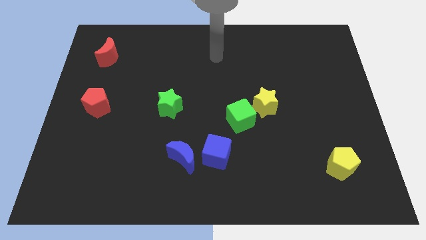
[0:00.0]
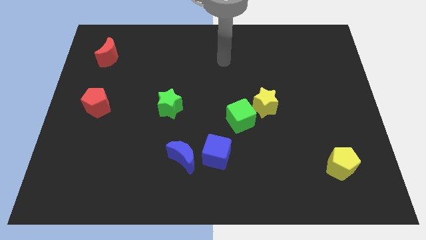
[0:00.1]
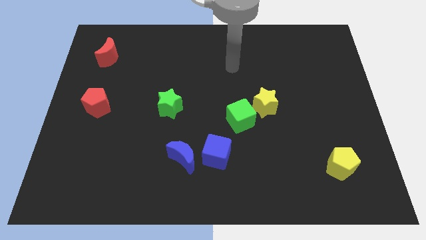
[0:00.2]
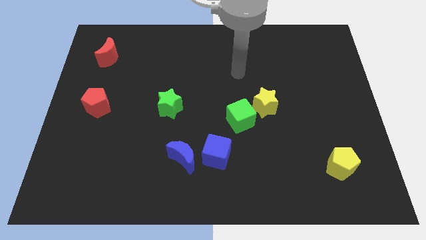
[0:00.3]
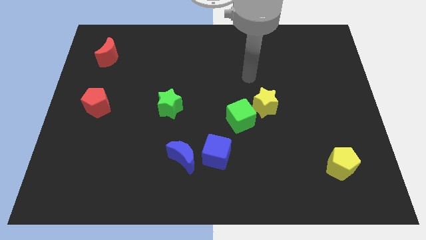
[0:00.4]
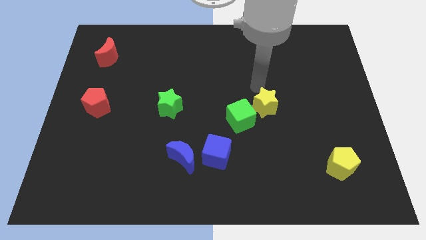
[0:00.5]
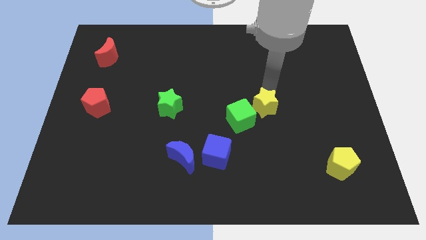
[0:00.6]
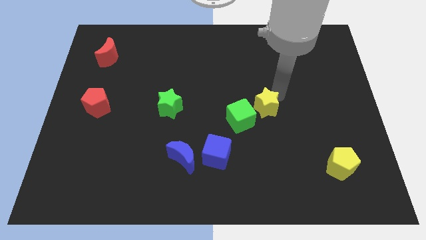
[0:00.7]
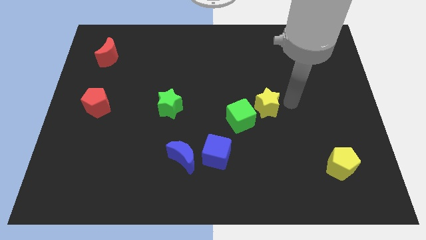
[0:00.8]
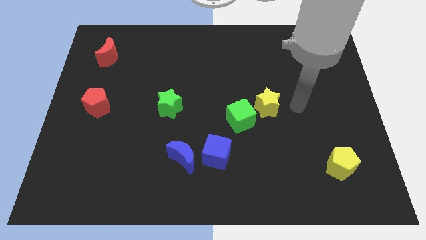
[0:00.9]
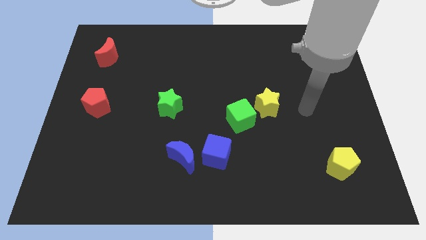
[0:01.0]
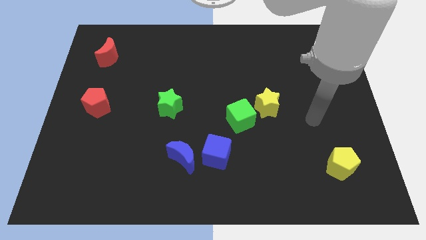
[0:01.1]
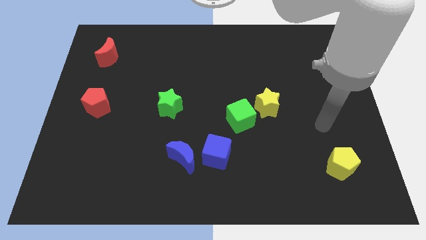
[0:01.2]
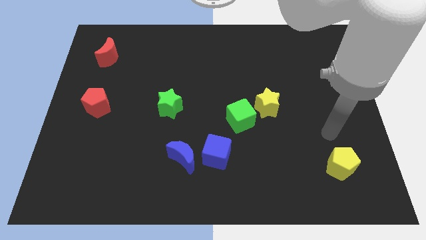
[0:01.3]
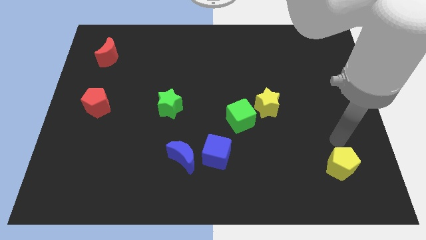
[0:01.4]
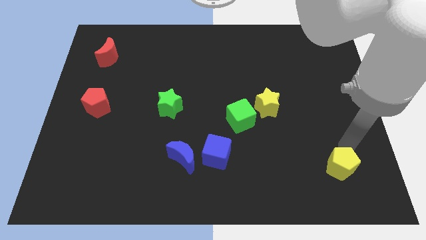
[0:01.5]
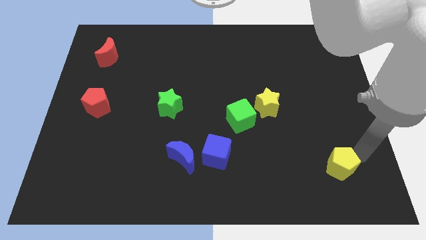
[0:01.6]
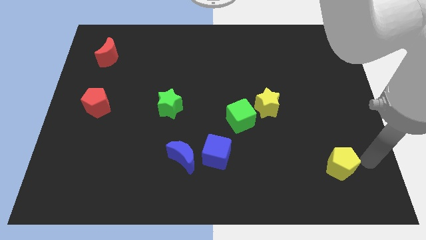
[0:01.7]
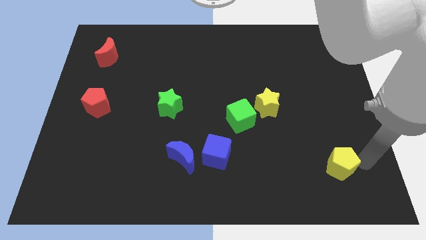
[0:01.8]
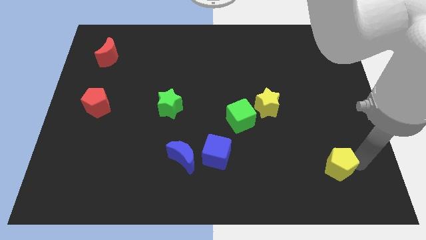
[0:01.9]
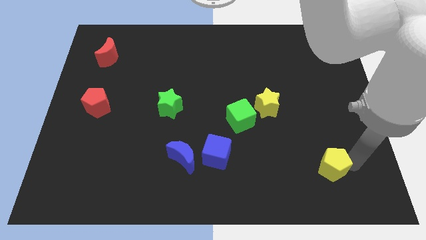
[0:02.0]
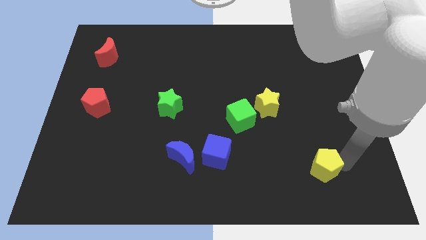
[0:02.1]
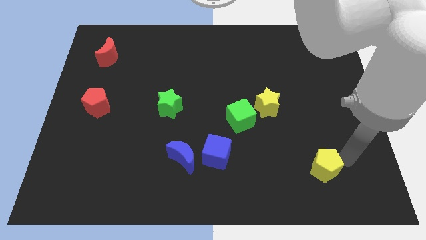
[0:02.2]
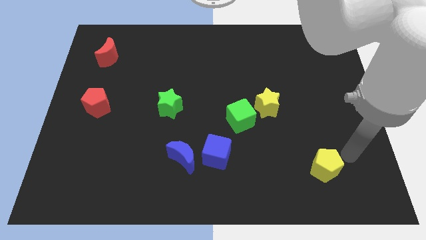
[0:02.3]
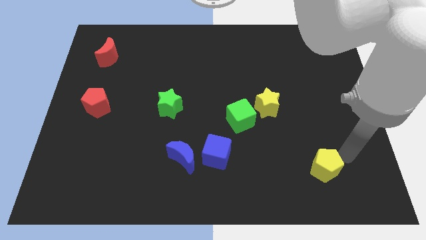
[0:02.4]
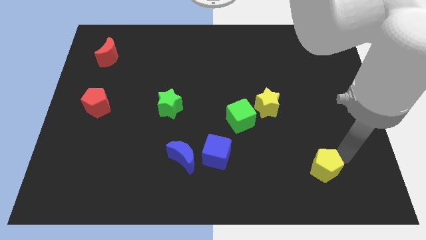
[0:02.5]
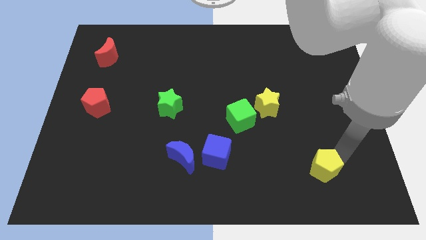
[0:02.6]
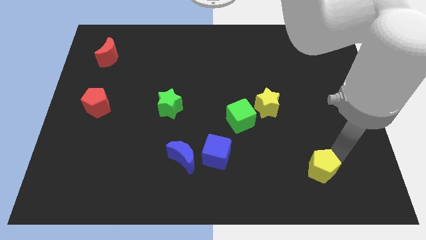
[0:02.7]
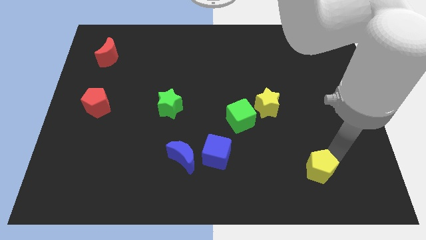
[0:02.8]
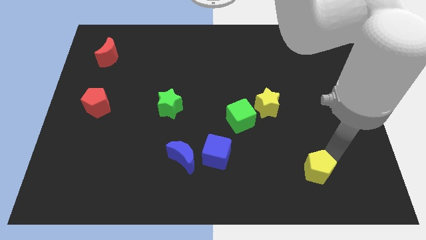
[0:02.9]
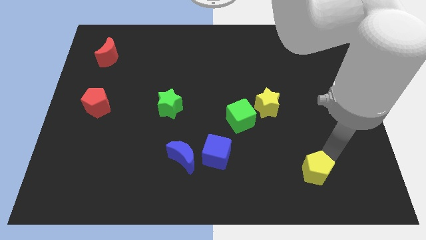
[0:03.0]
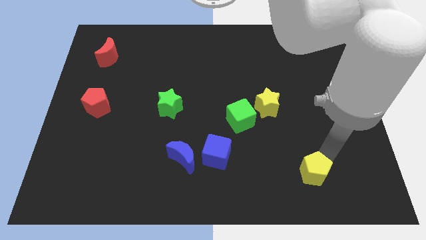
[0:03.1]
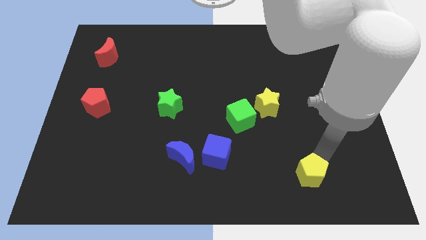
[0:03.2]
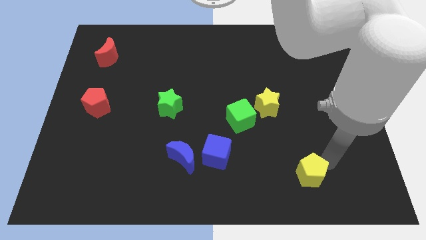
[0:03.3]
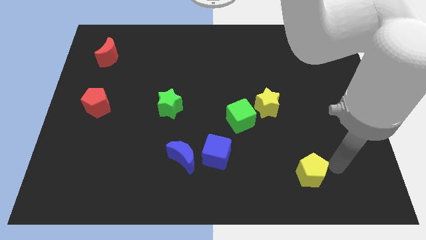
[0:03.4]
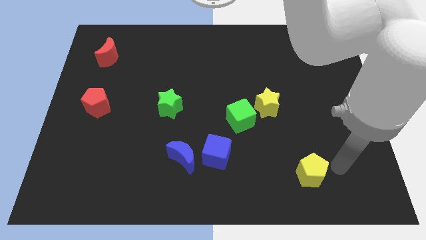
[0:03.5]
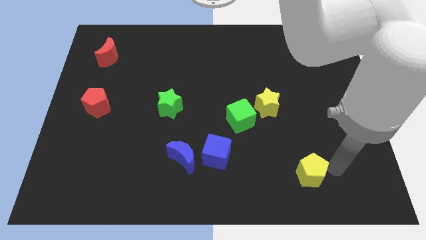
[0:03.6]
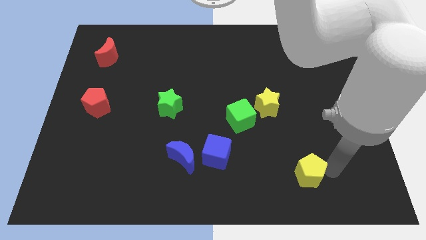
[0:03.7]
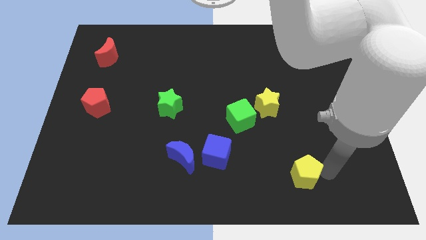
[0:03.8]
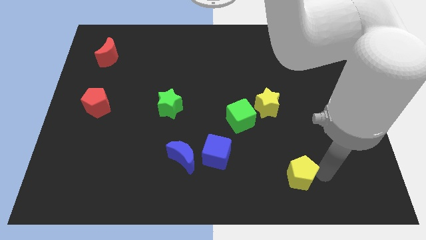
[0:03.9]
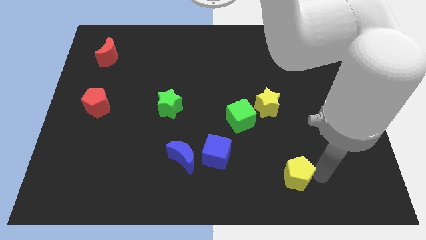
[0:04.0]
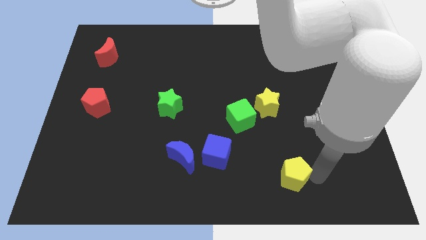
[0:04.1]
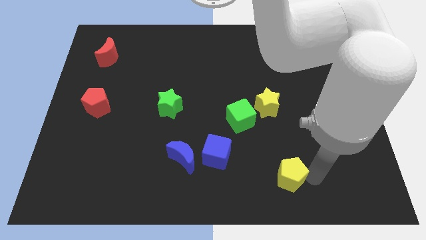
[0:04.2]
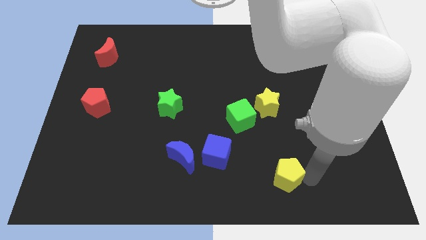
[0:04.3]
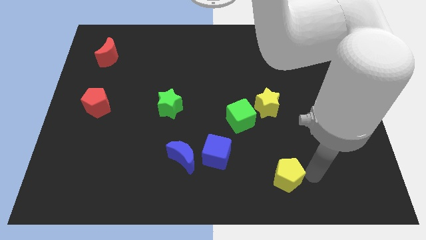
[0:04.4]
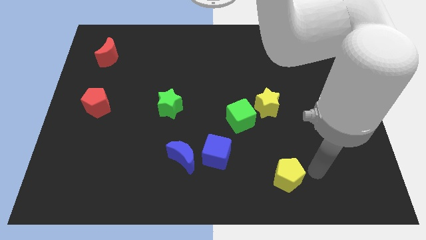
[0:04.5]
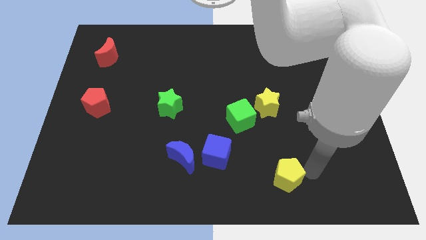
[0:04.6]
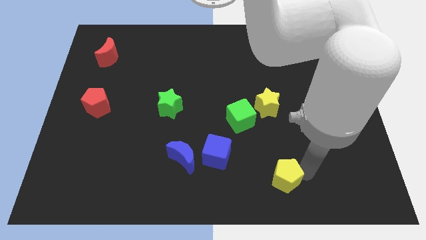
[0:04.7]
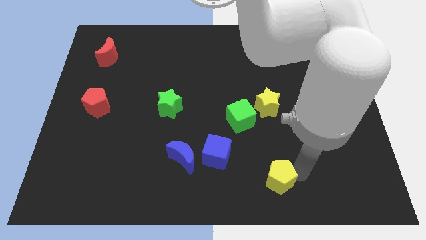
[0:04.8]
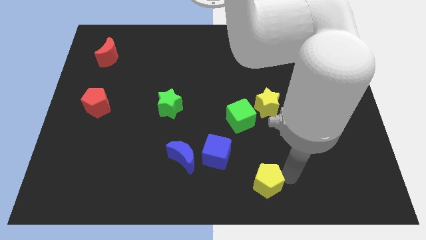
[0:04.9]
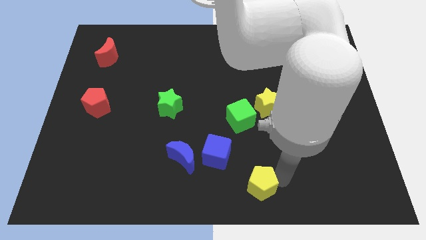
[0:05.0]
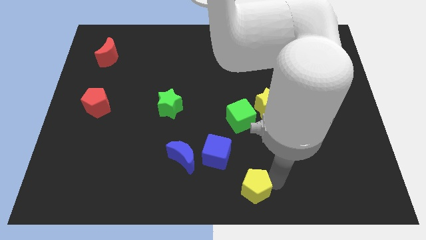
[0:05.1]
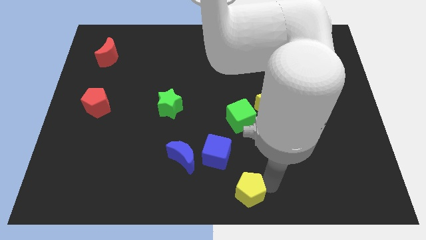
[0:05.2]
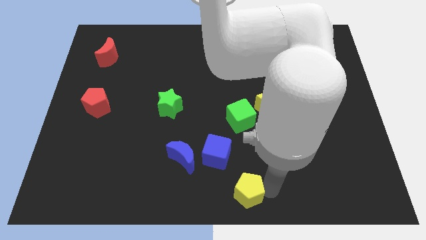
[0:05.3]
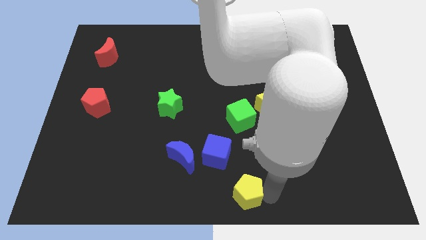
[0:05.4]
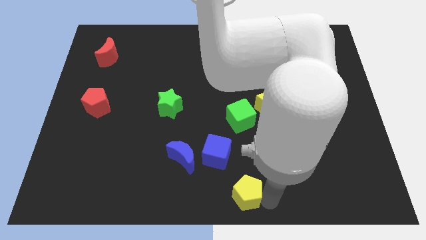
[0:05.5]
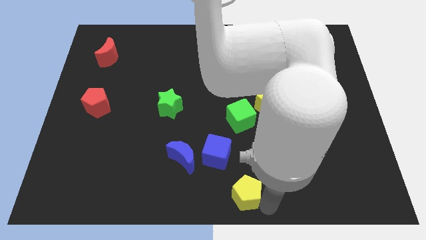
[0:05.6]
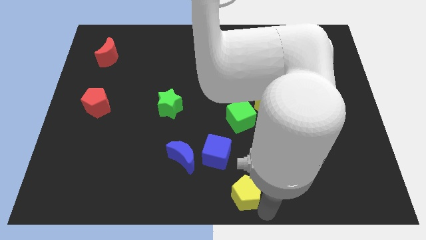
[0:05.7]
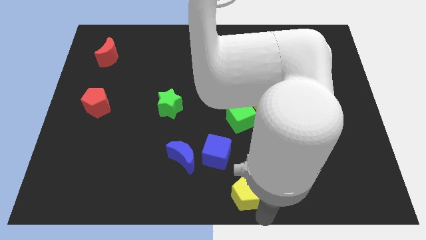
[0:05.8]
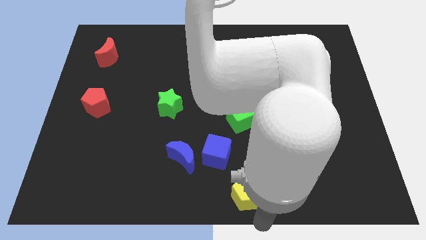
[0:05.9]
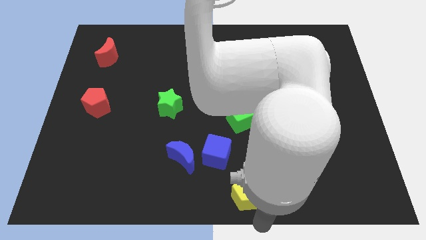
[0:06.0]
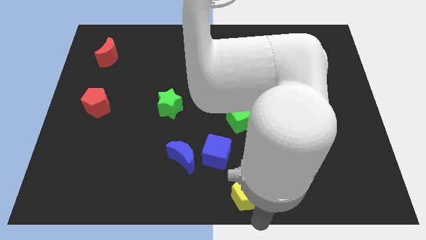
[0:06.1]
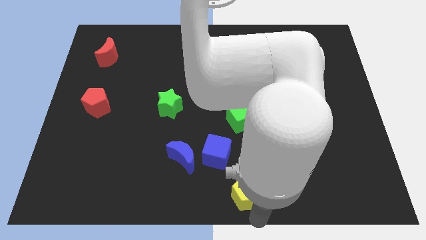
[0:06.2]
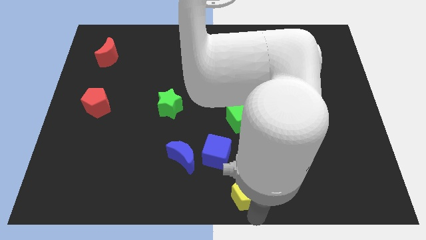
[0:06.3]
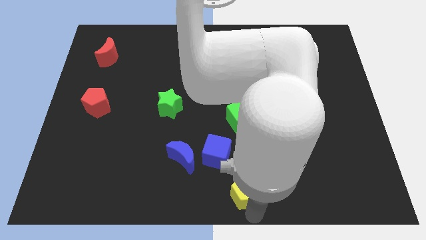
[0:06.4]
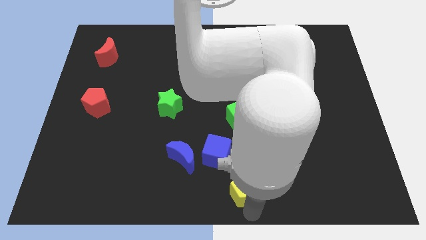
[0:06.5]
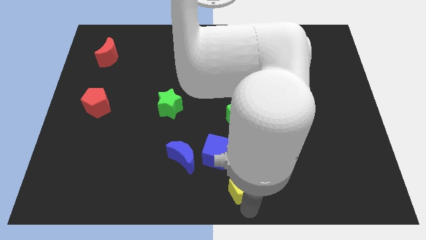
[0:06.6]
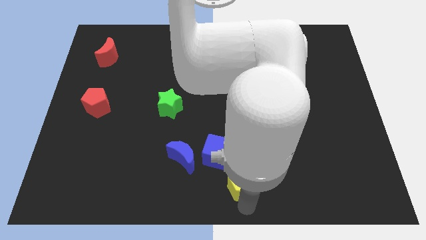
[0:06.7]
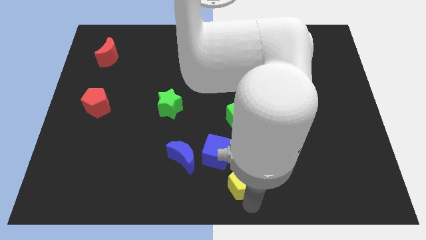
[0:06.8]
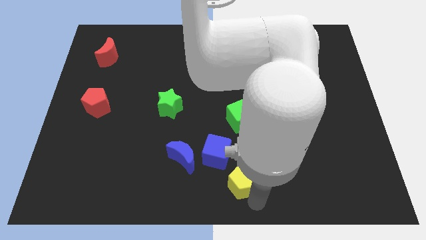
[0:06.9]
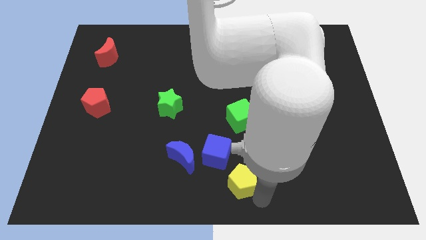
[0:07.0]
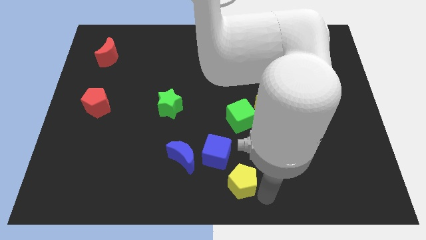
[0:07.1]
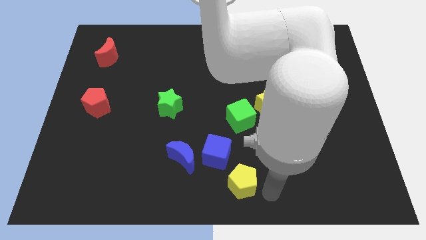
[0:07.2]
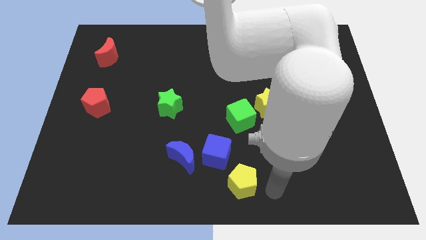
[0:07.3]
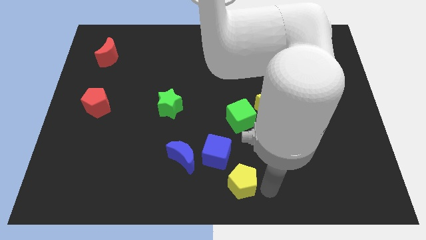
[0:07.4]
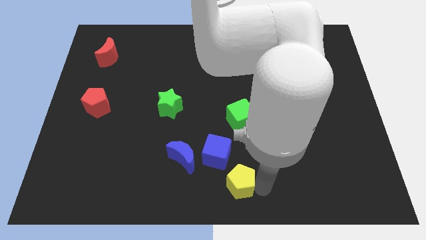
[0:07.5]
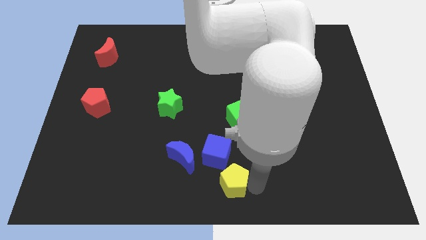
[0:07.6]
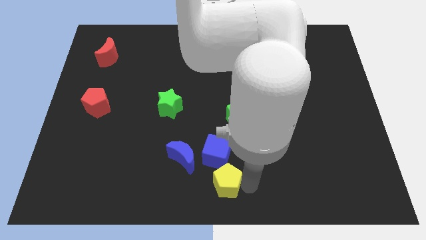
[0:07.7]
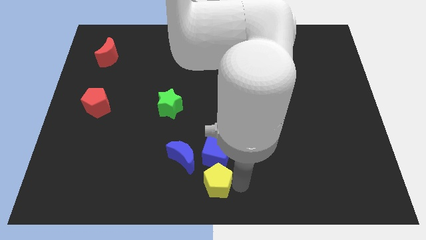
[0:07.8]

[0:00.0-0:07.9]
slide the yellow pentagon to the bottom left of the blue cube
